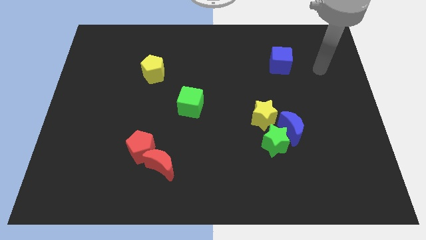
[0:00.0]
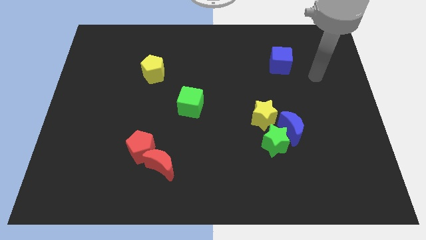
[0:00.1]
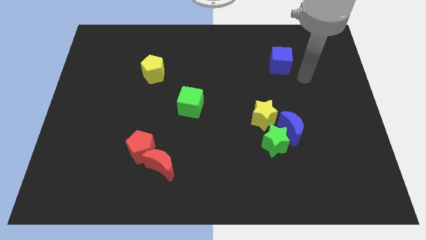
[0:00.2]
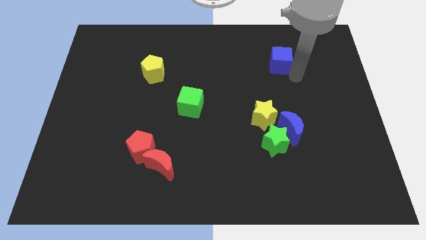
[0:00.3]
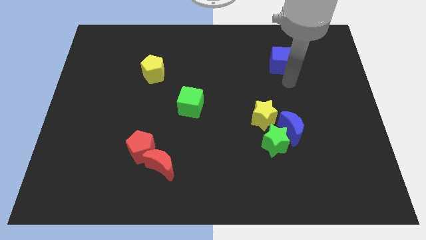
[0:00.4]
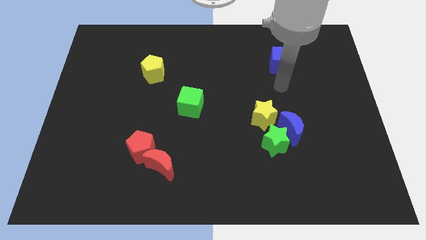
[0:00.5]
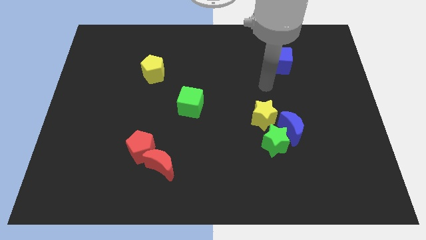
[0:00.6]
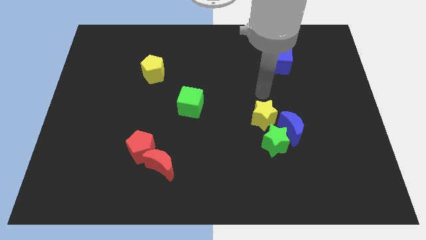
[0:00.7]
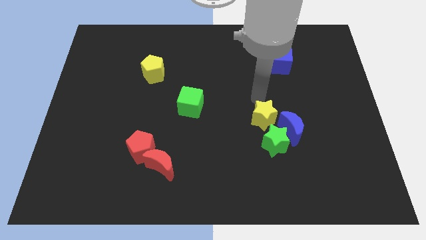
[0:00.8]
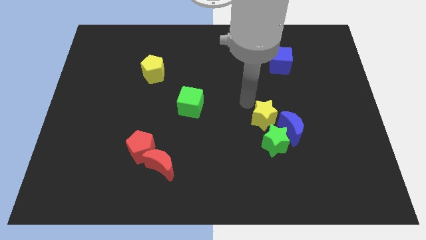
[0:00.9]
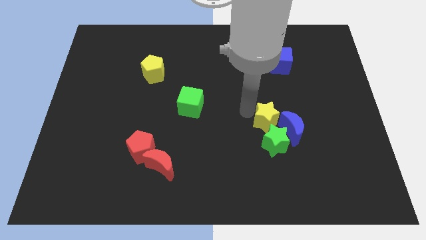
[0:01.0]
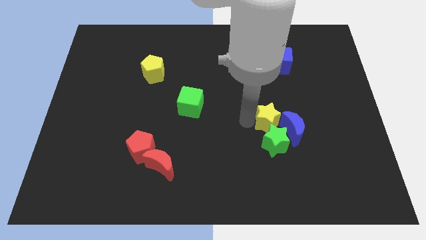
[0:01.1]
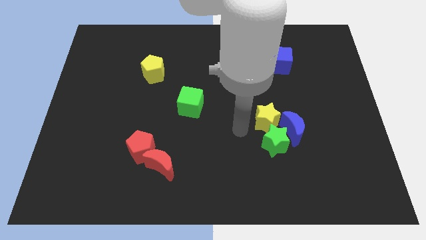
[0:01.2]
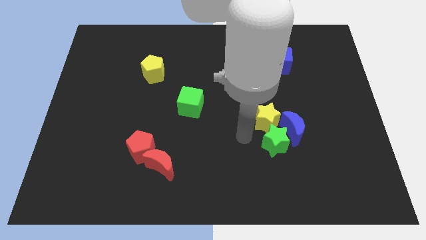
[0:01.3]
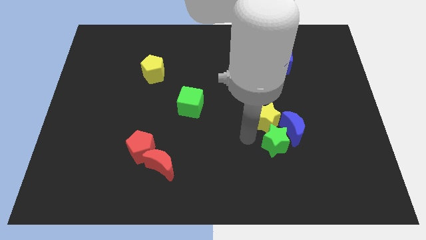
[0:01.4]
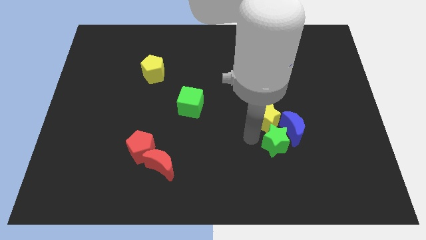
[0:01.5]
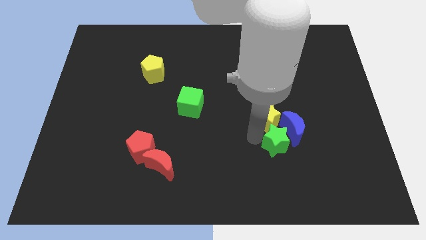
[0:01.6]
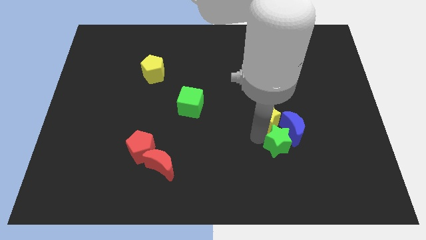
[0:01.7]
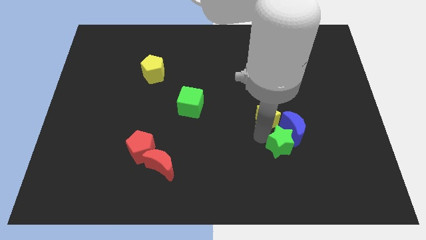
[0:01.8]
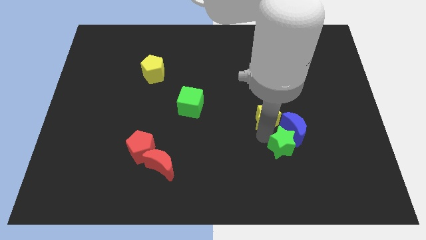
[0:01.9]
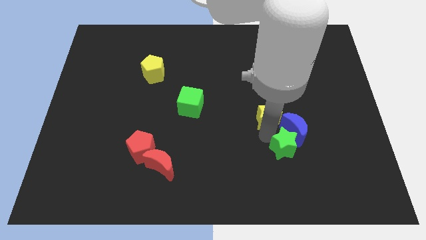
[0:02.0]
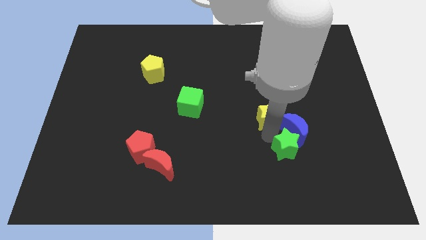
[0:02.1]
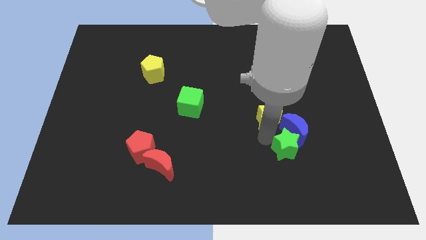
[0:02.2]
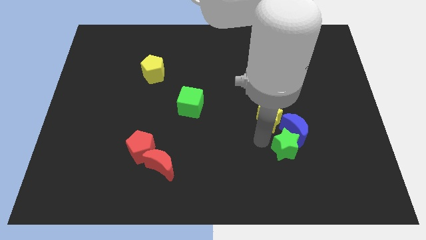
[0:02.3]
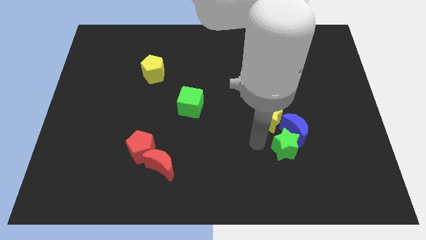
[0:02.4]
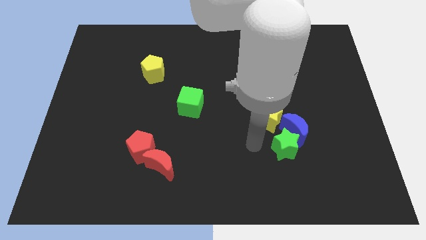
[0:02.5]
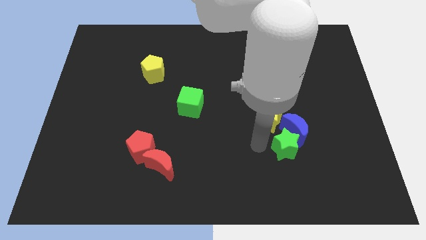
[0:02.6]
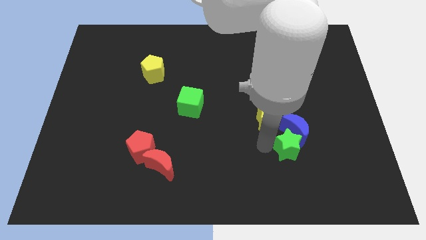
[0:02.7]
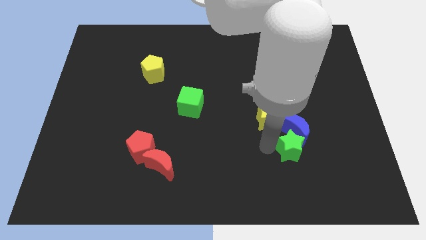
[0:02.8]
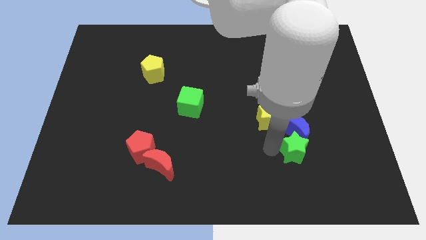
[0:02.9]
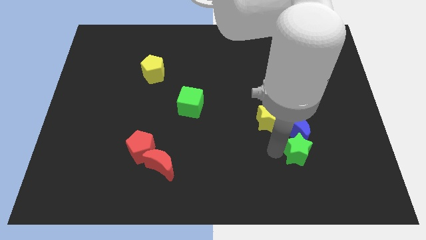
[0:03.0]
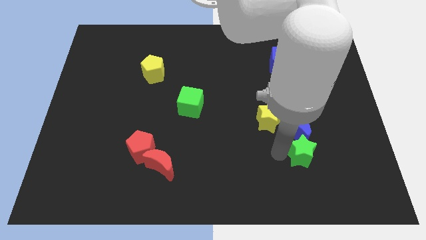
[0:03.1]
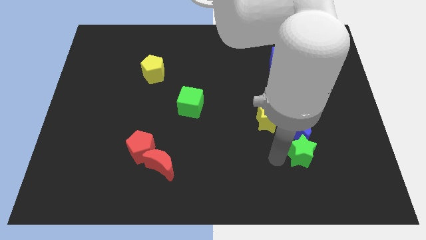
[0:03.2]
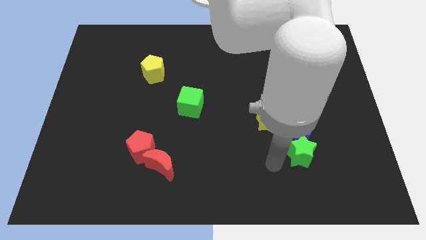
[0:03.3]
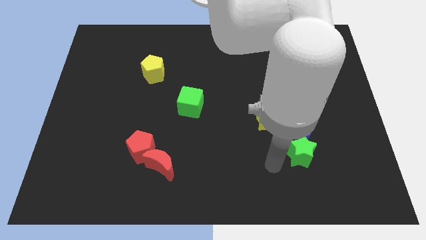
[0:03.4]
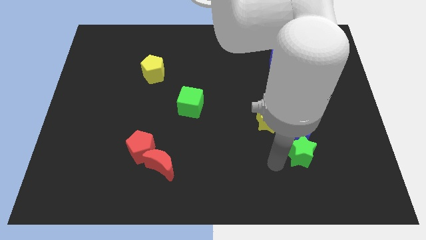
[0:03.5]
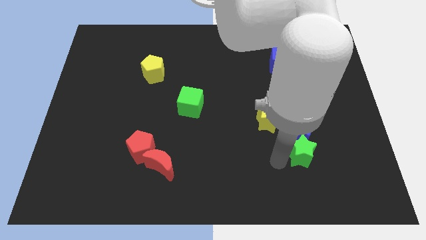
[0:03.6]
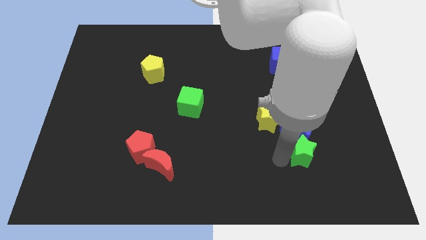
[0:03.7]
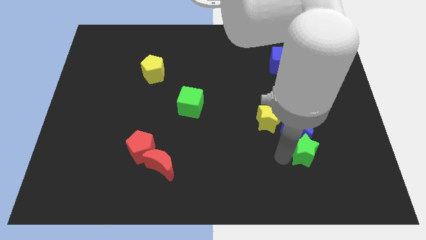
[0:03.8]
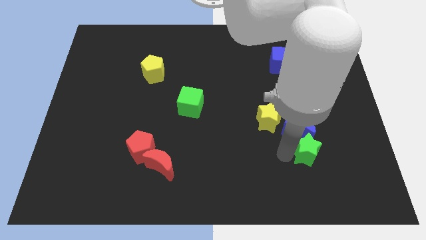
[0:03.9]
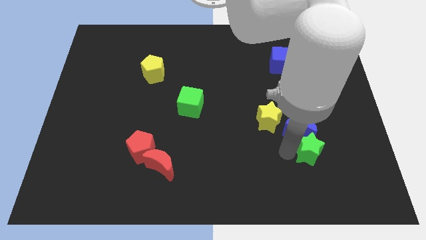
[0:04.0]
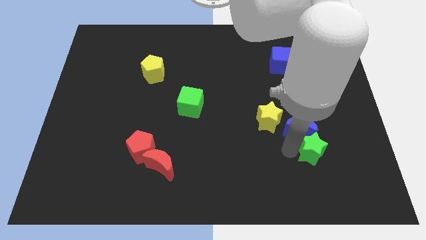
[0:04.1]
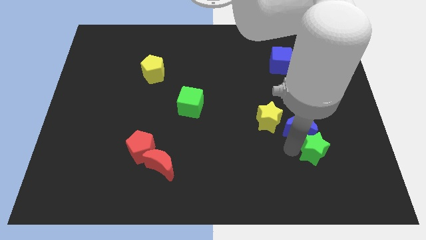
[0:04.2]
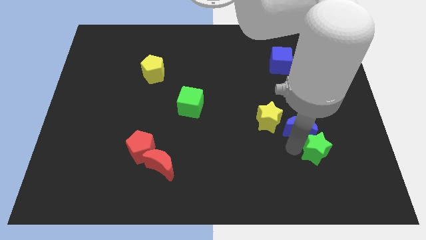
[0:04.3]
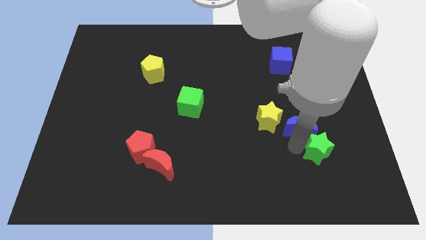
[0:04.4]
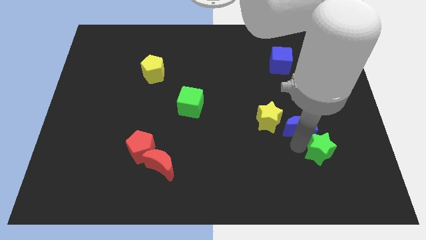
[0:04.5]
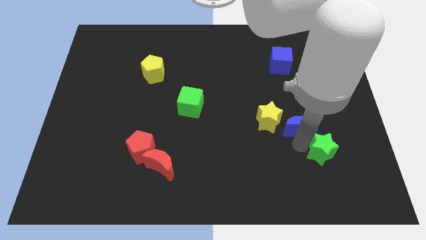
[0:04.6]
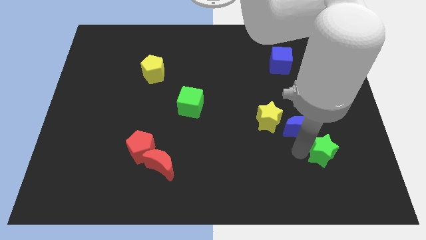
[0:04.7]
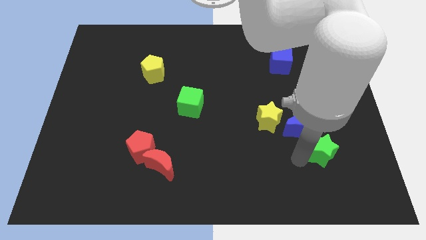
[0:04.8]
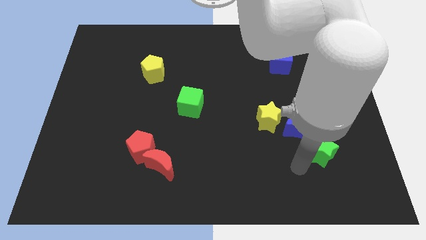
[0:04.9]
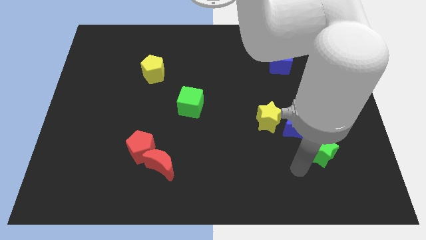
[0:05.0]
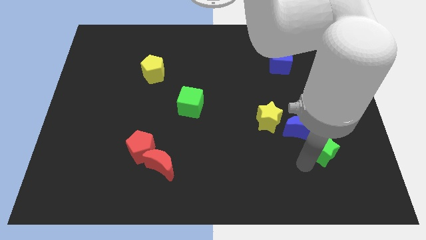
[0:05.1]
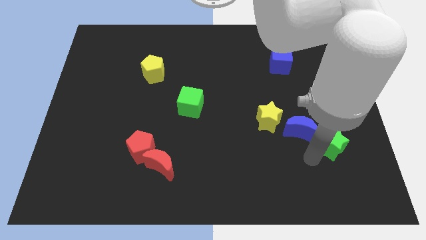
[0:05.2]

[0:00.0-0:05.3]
put the green star right of the blue moon

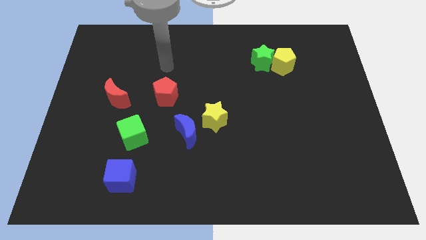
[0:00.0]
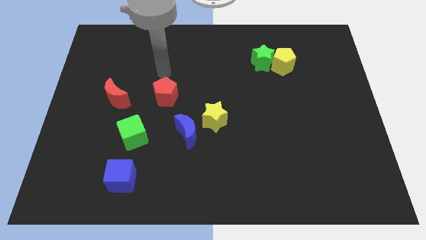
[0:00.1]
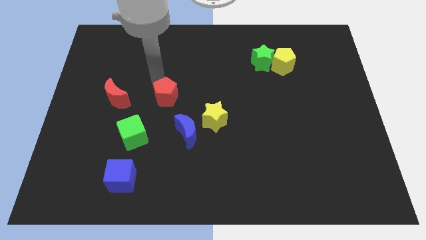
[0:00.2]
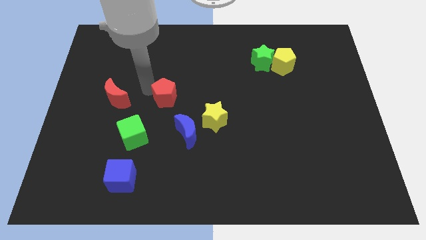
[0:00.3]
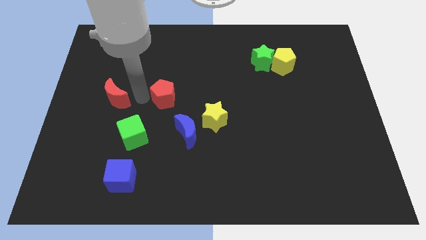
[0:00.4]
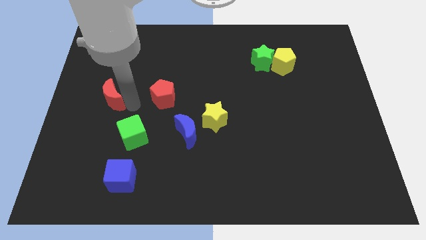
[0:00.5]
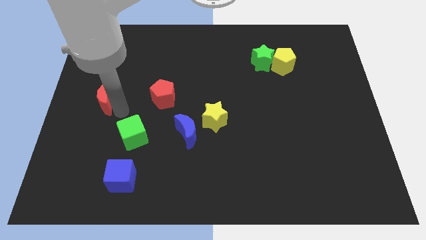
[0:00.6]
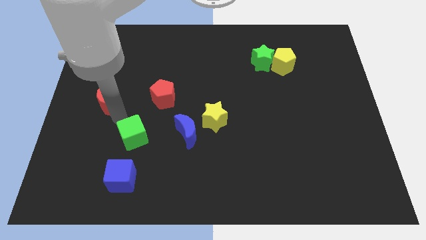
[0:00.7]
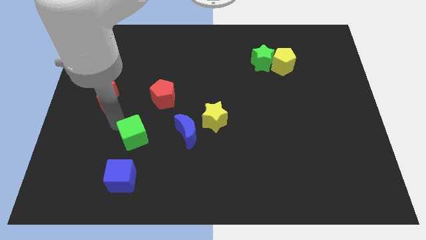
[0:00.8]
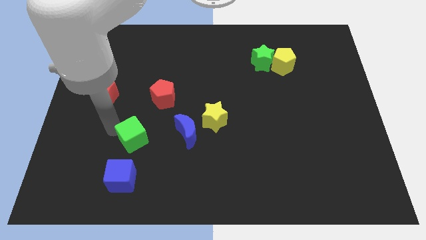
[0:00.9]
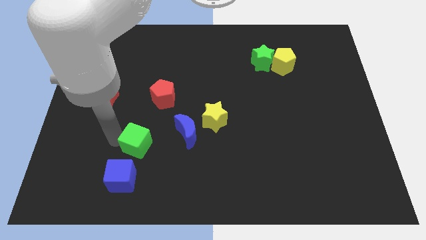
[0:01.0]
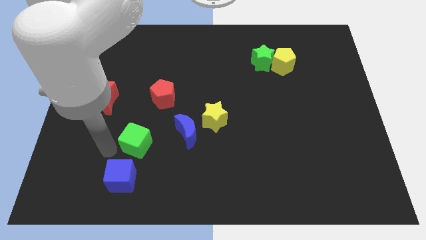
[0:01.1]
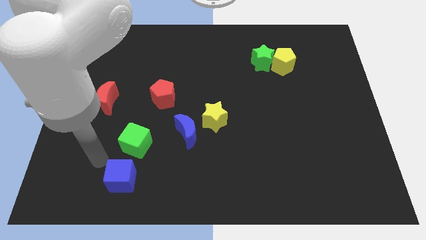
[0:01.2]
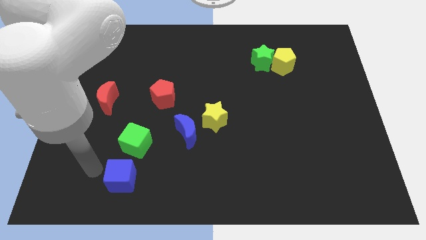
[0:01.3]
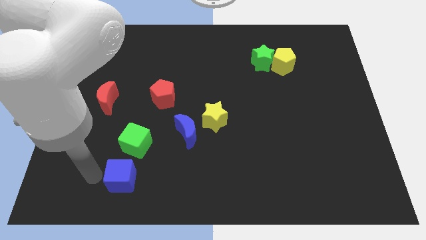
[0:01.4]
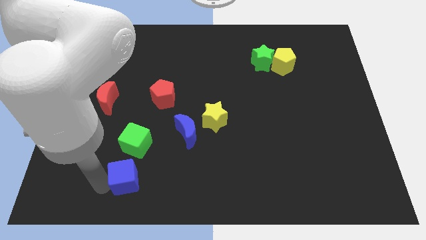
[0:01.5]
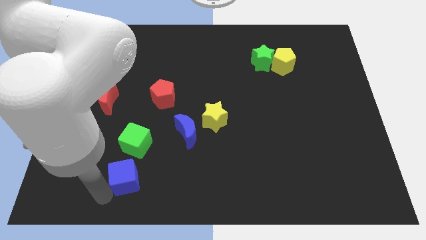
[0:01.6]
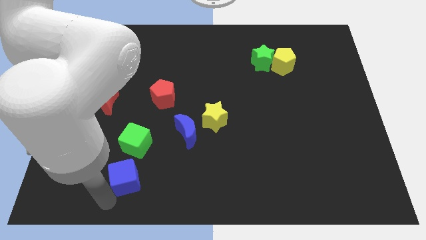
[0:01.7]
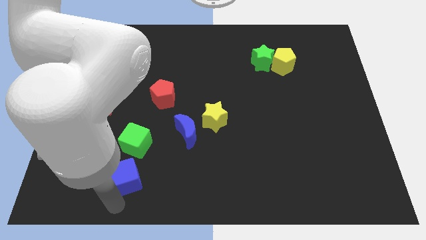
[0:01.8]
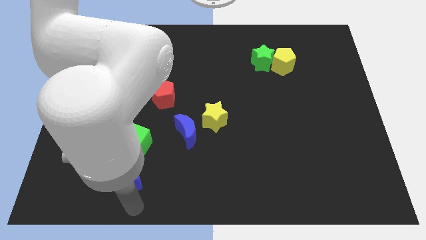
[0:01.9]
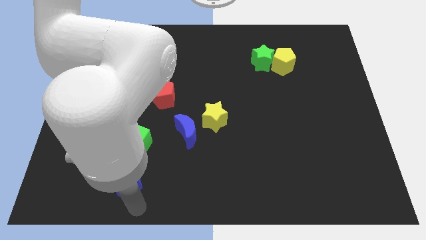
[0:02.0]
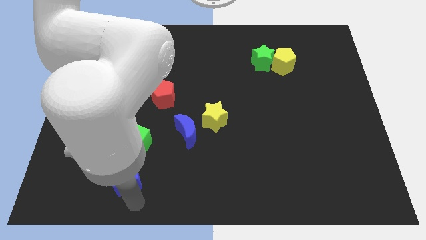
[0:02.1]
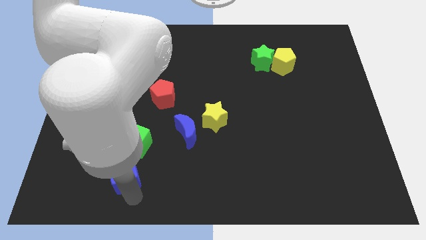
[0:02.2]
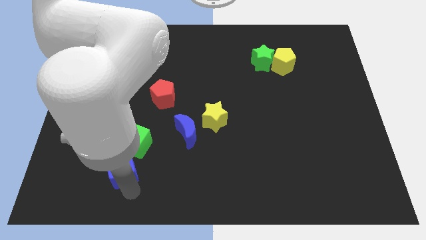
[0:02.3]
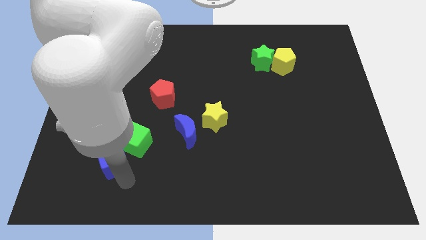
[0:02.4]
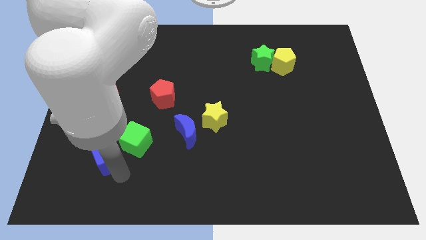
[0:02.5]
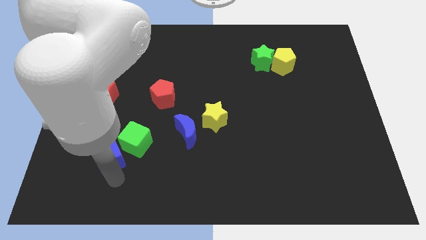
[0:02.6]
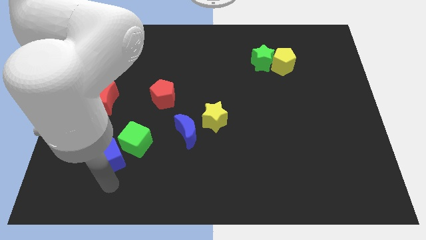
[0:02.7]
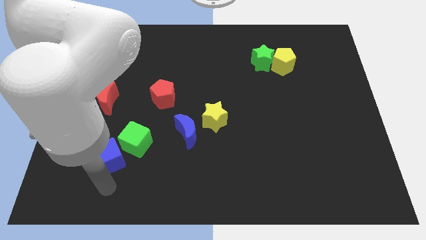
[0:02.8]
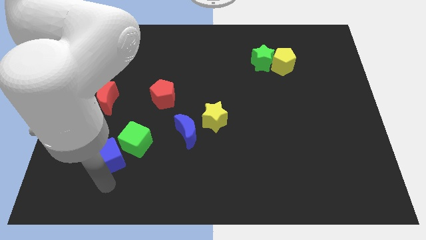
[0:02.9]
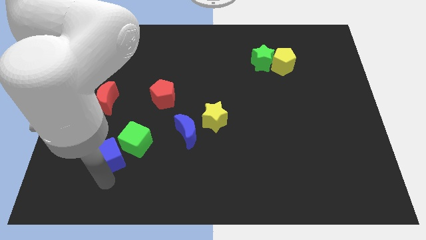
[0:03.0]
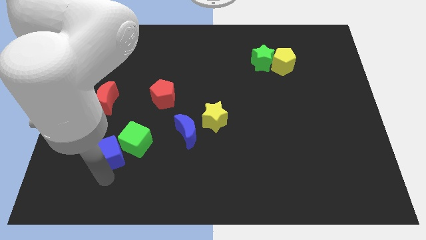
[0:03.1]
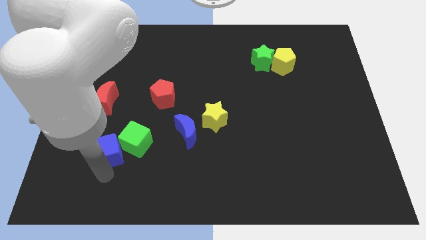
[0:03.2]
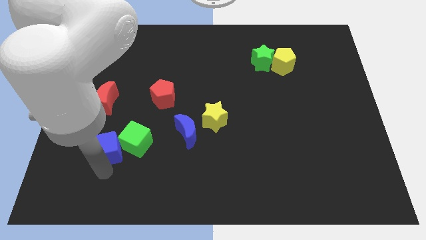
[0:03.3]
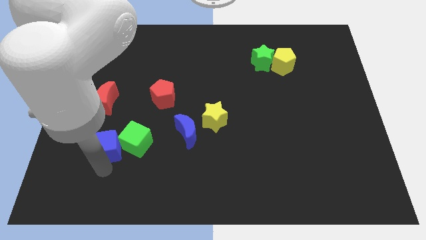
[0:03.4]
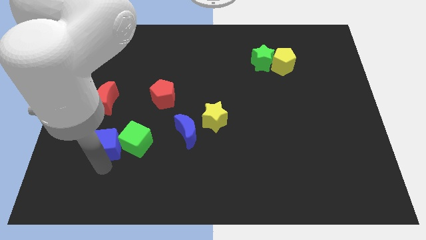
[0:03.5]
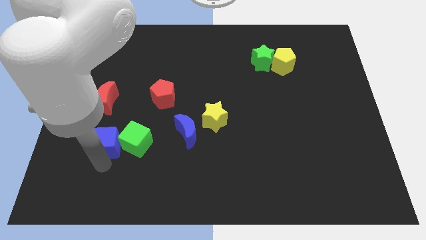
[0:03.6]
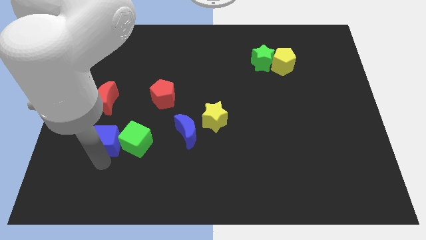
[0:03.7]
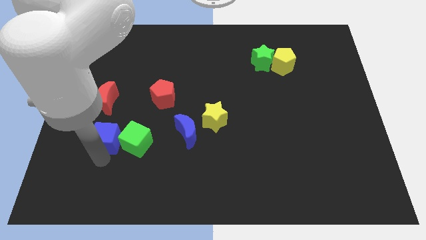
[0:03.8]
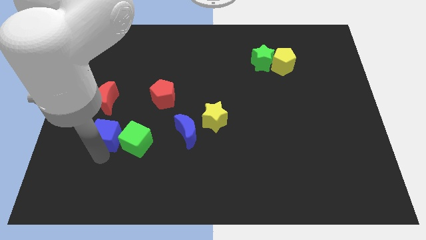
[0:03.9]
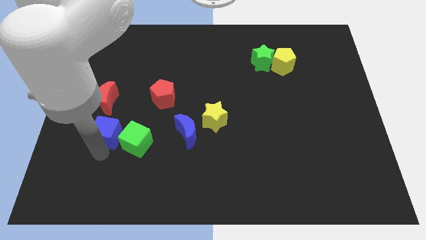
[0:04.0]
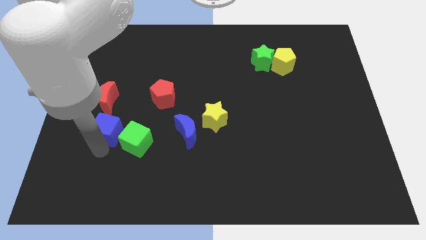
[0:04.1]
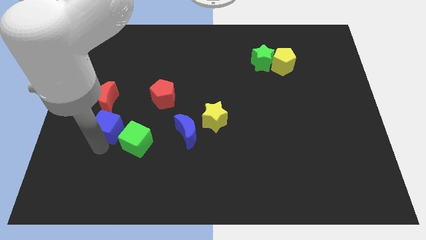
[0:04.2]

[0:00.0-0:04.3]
put the blue cube to the bottom right of the red moon
